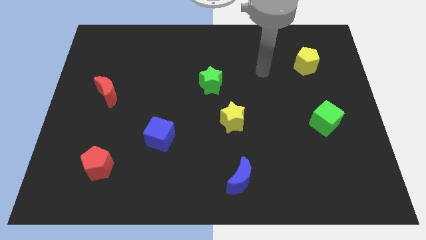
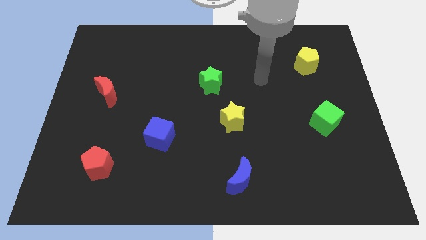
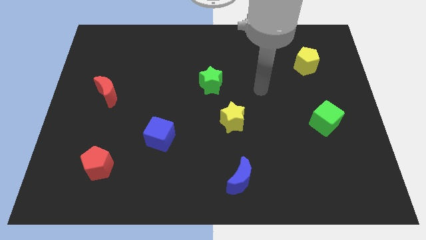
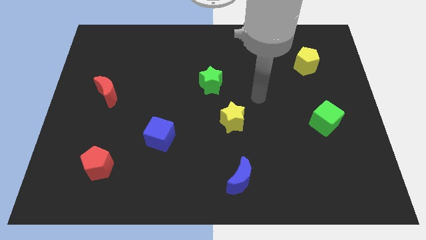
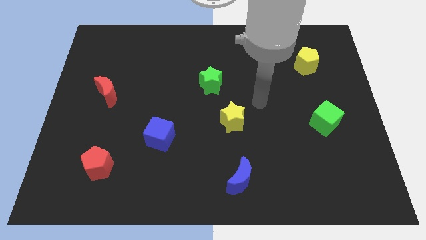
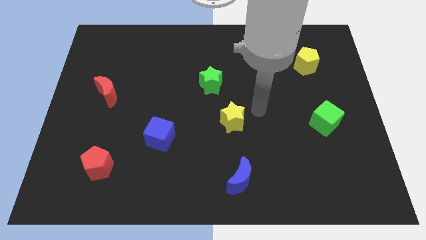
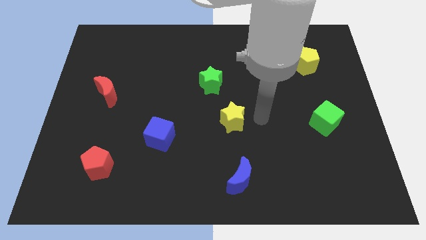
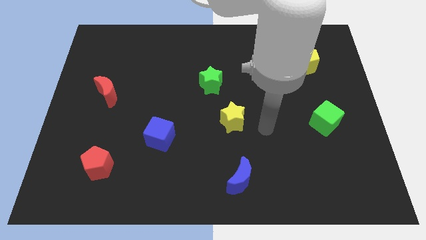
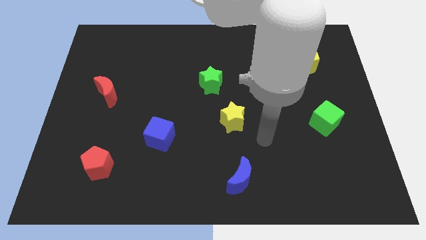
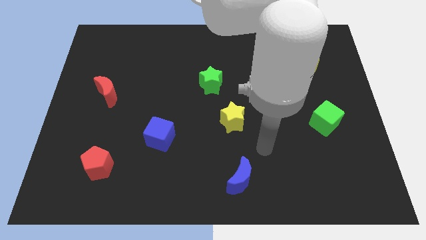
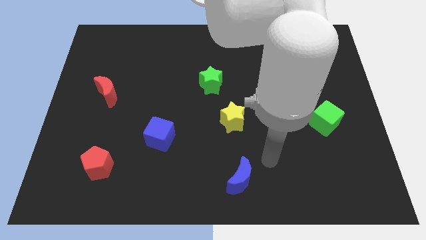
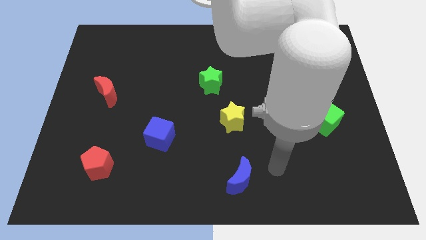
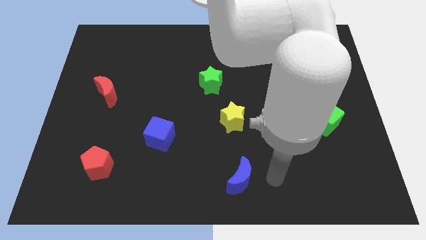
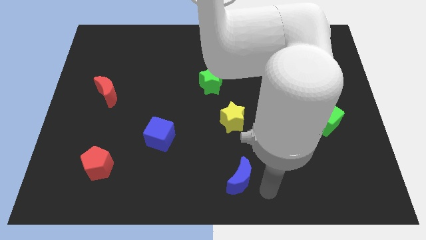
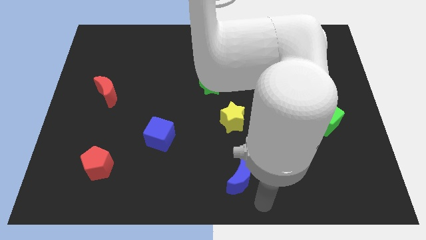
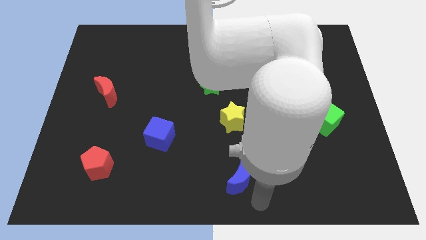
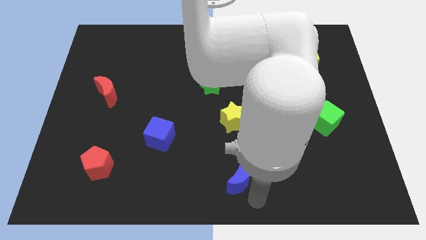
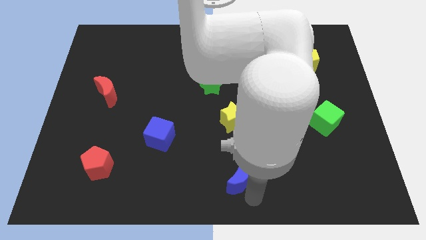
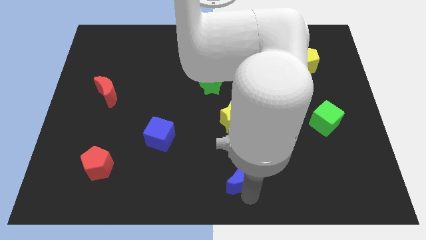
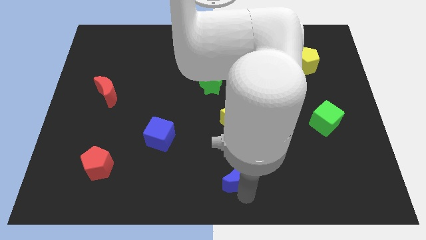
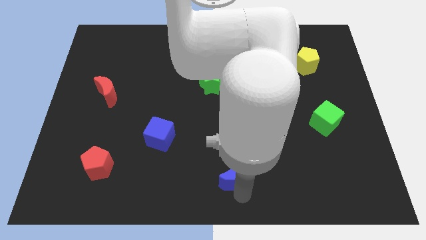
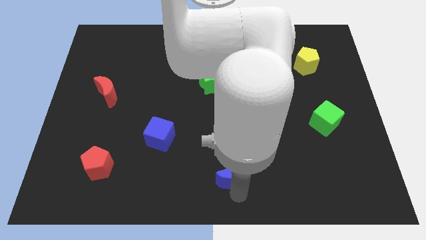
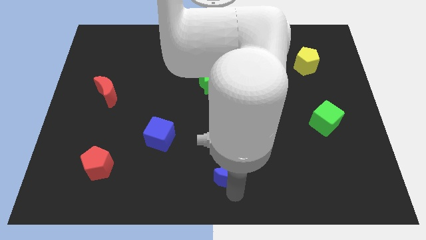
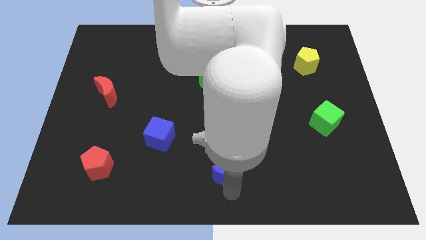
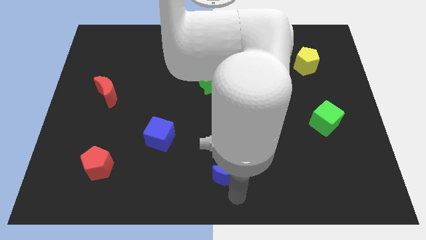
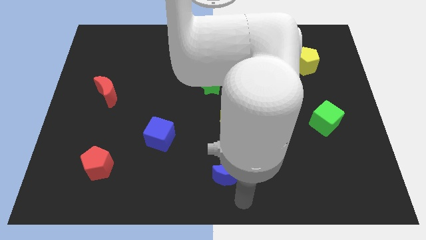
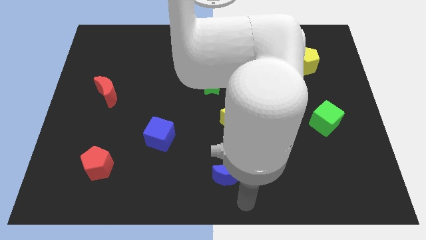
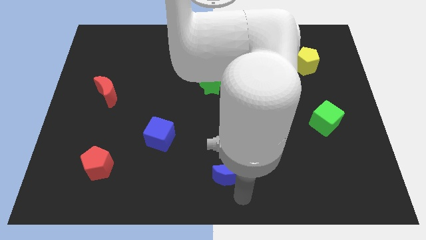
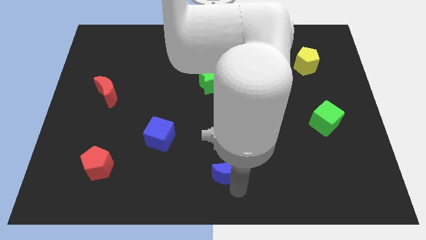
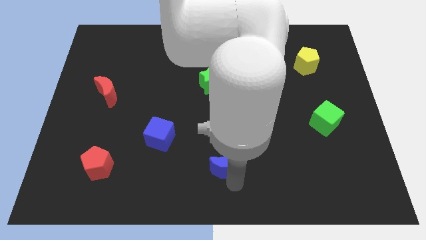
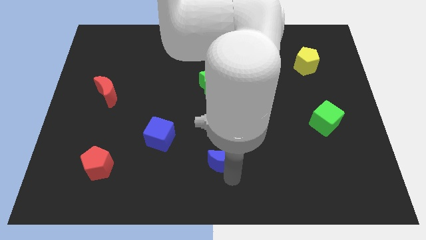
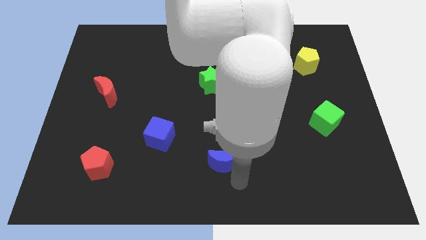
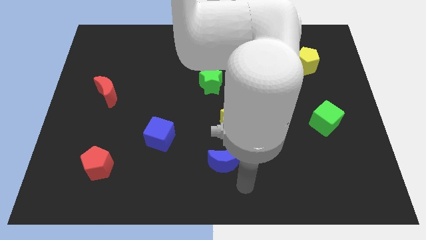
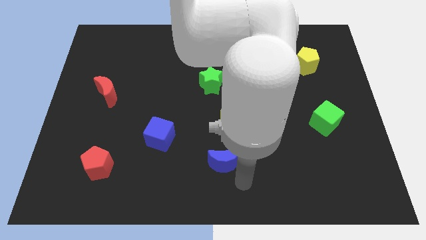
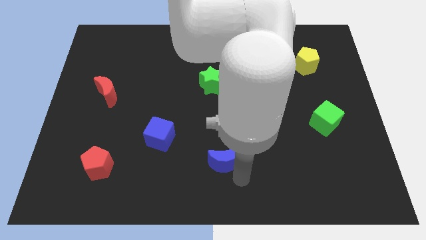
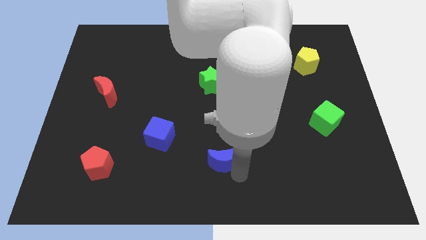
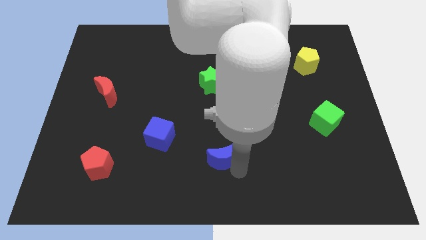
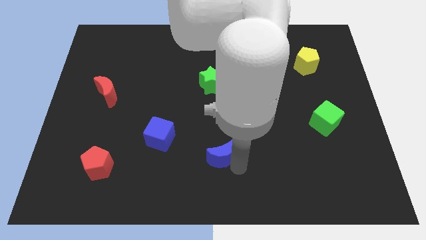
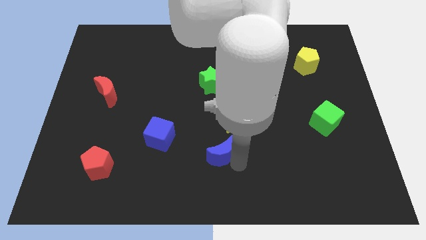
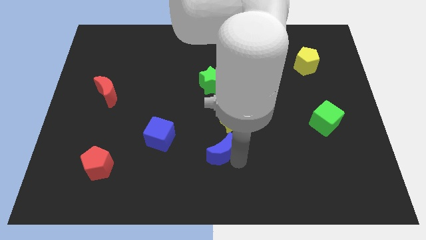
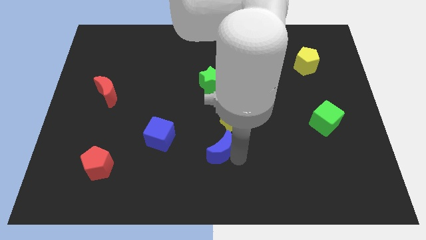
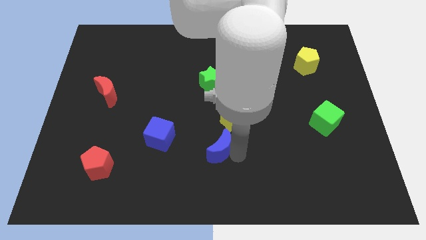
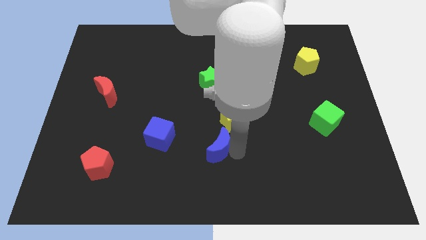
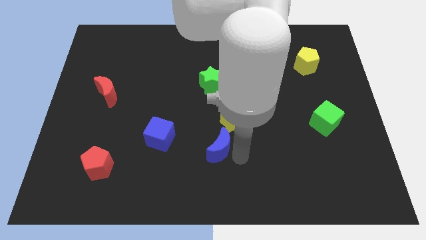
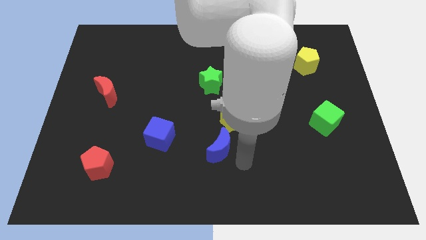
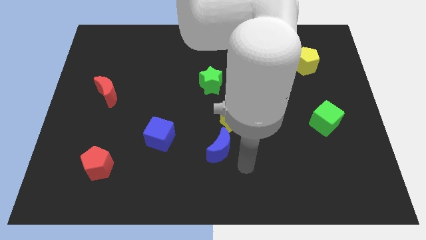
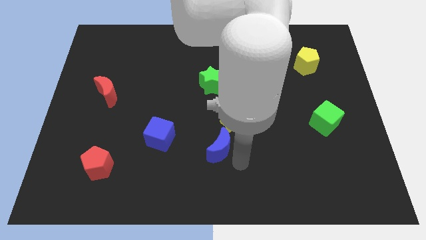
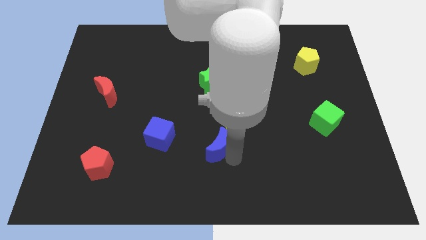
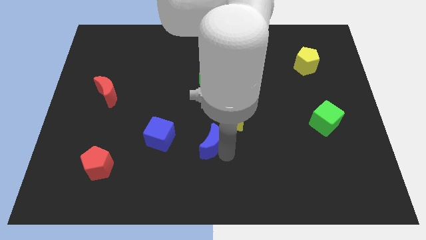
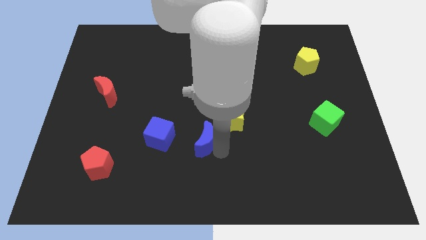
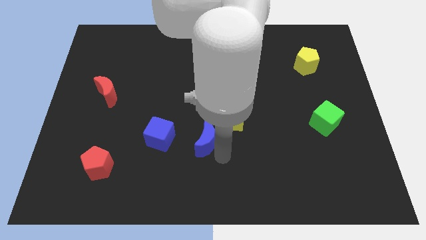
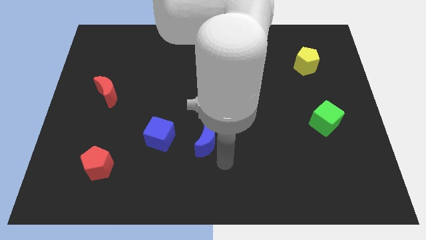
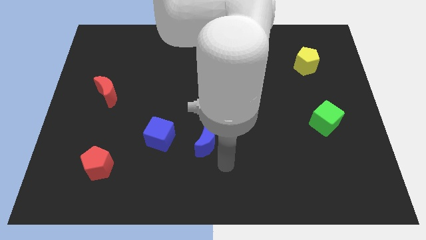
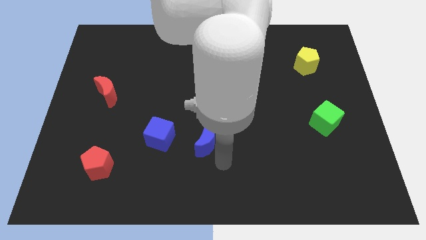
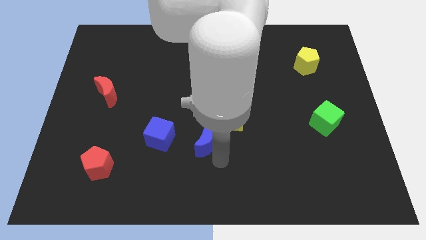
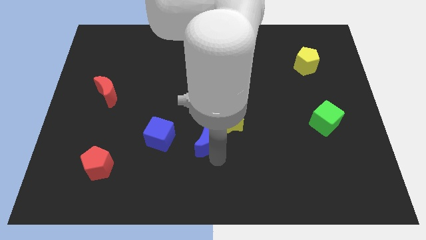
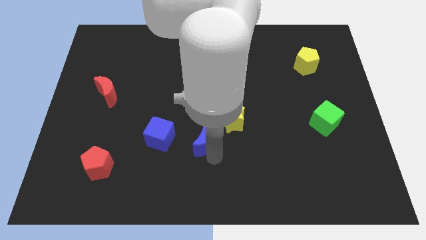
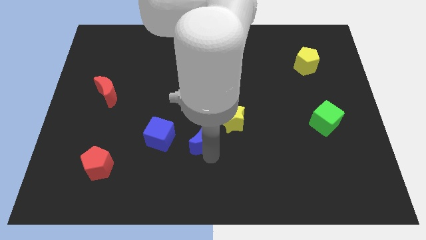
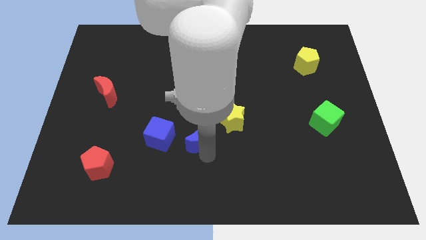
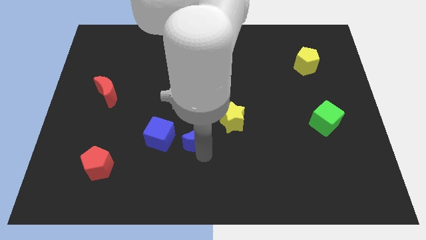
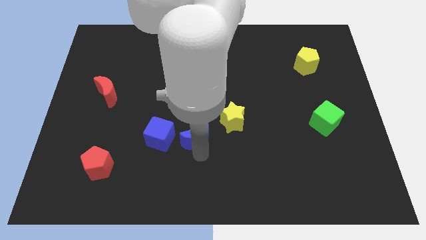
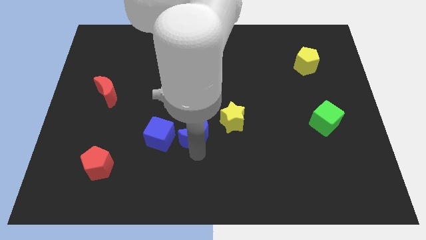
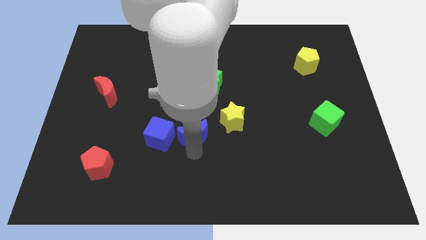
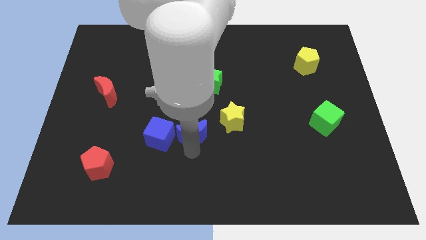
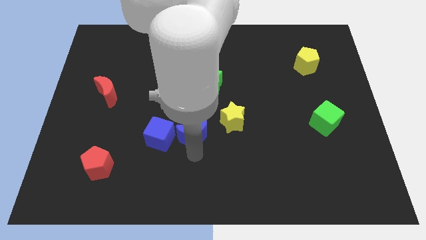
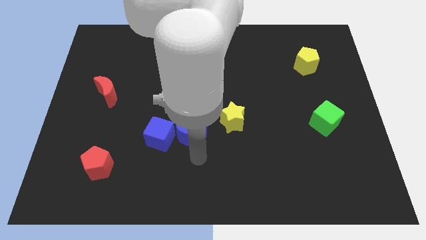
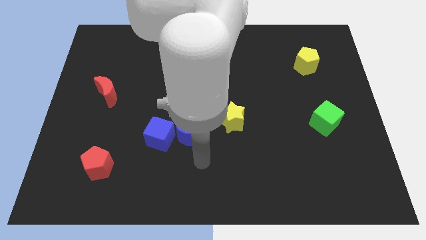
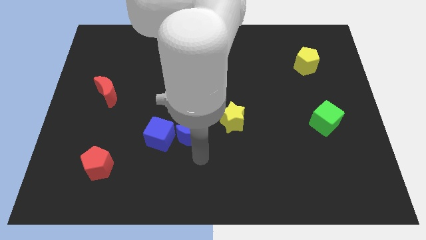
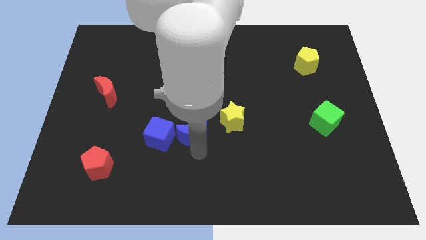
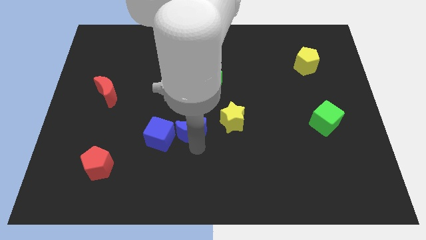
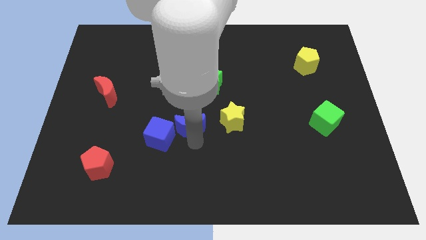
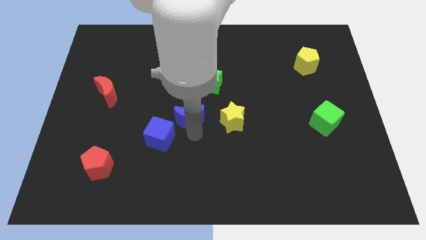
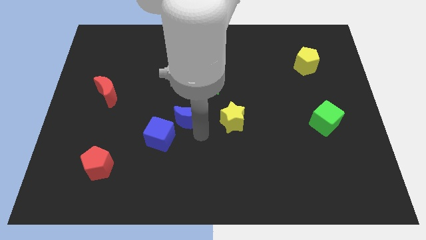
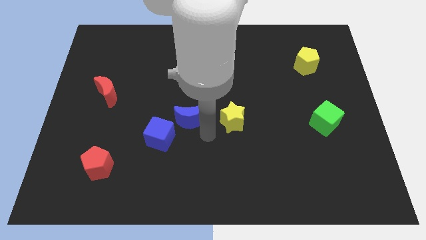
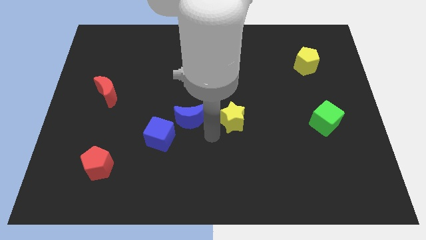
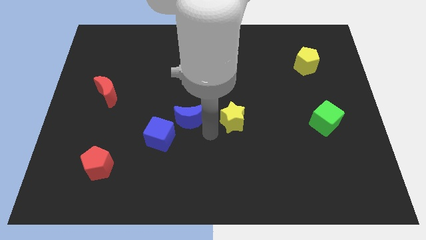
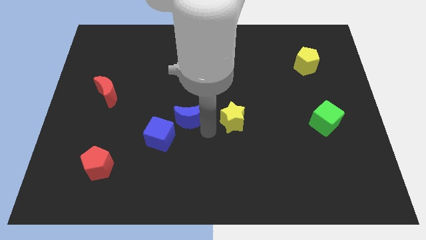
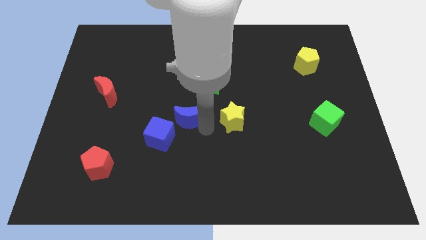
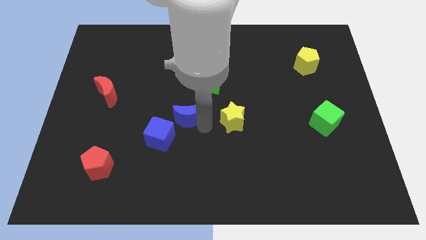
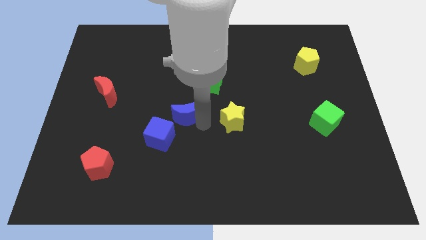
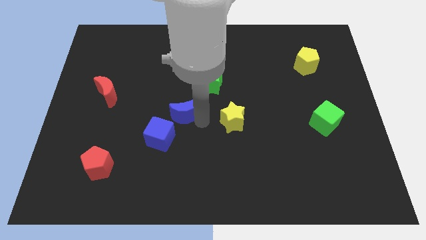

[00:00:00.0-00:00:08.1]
slide the blue moon upwards and left diagonally
